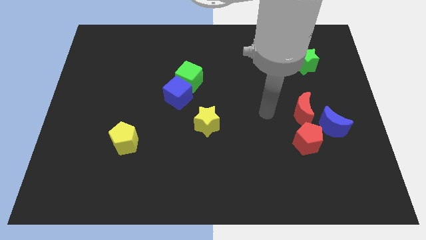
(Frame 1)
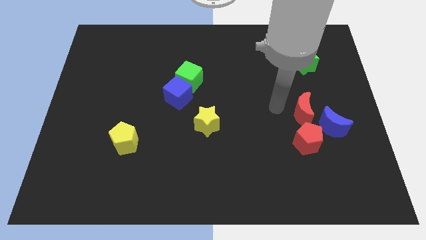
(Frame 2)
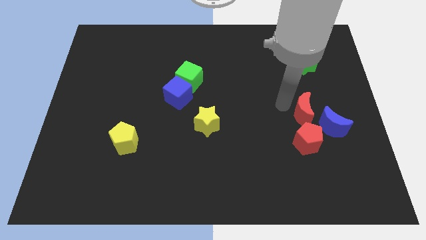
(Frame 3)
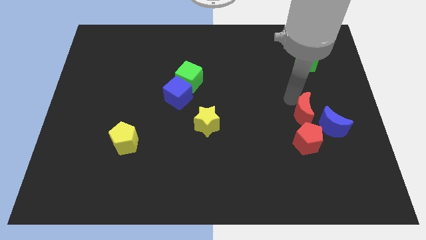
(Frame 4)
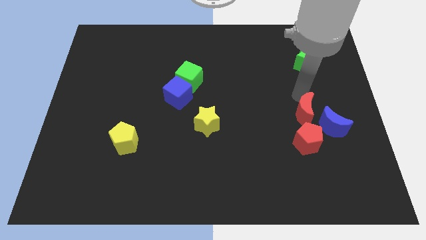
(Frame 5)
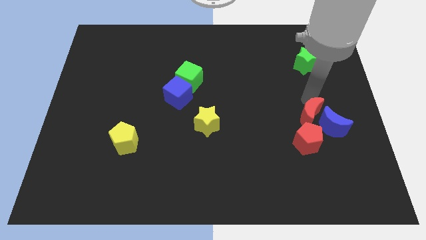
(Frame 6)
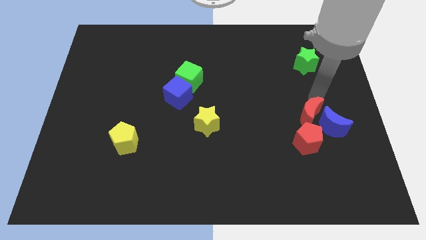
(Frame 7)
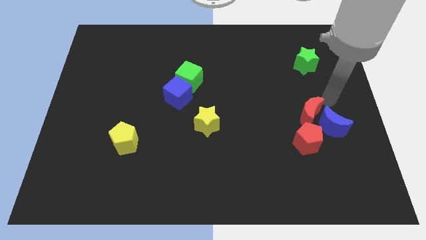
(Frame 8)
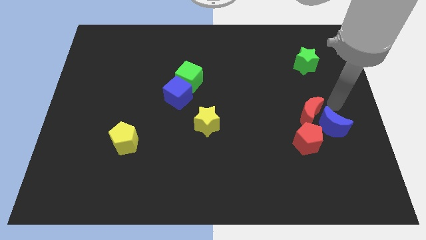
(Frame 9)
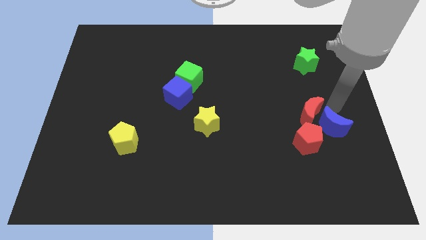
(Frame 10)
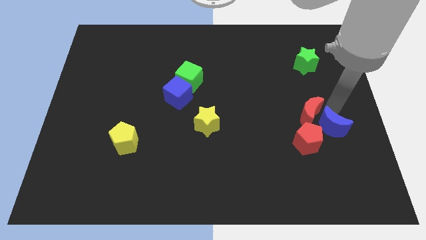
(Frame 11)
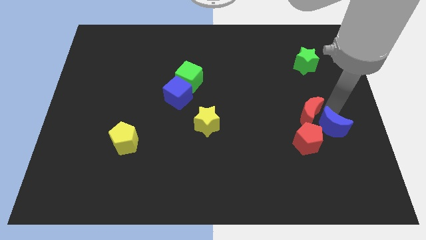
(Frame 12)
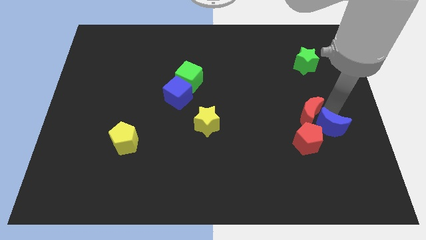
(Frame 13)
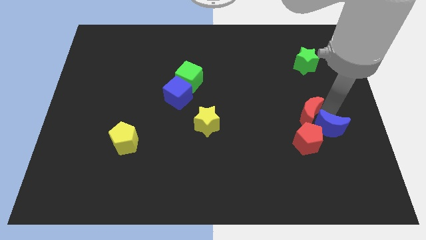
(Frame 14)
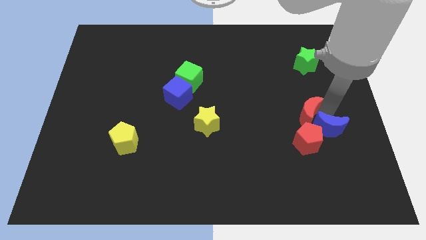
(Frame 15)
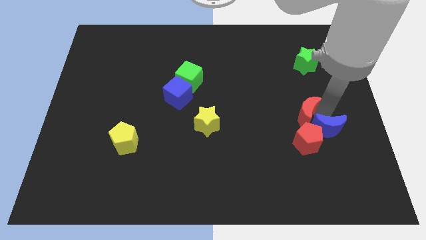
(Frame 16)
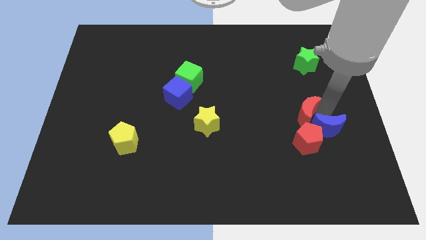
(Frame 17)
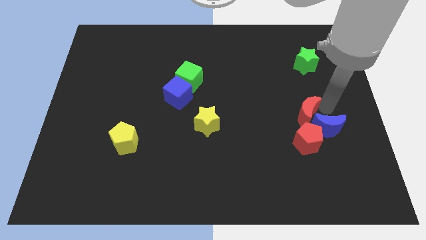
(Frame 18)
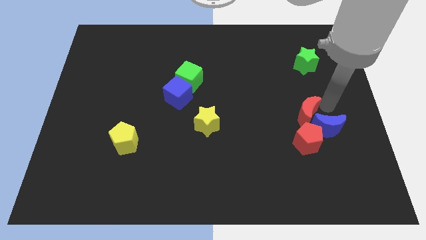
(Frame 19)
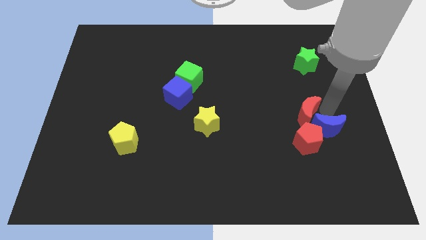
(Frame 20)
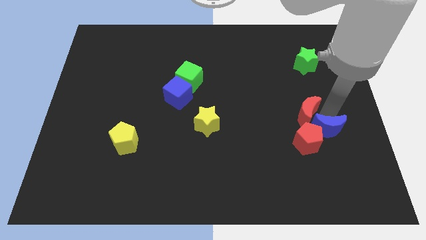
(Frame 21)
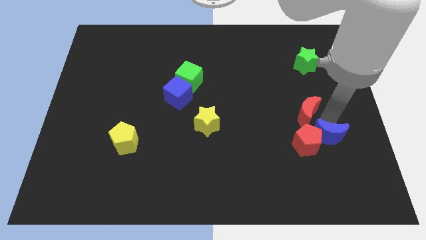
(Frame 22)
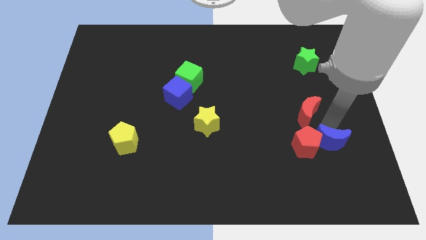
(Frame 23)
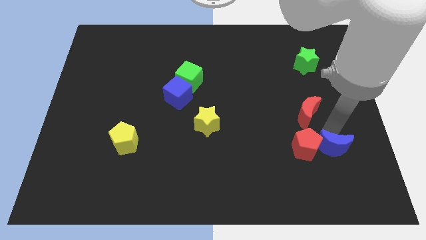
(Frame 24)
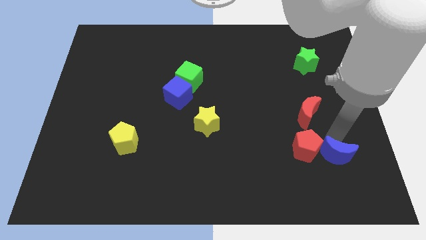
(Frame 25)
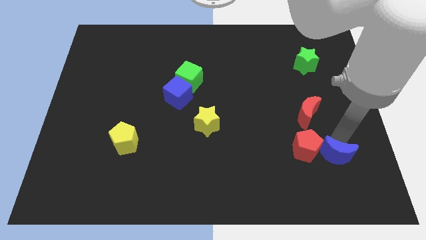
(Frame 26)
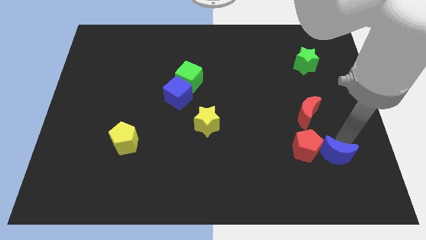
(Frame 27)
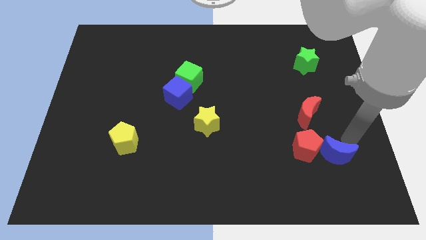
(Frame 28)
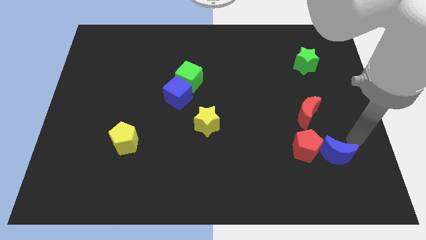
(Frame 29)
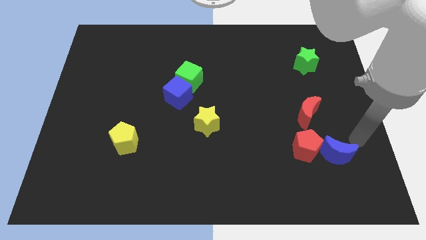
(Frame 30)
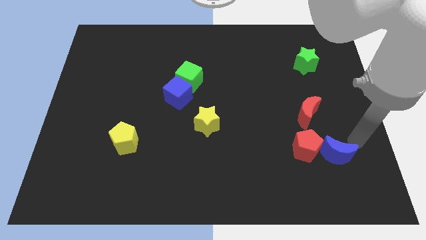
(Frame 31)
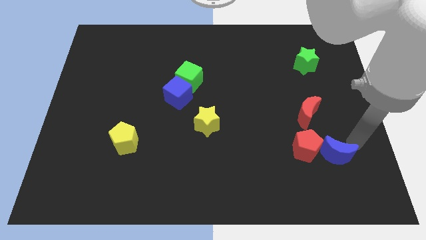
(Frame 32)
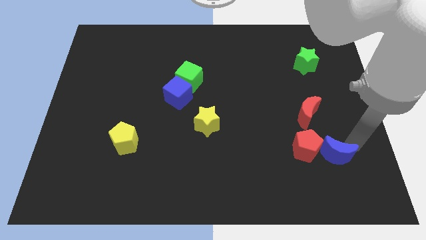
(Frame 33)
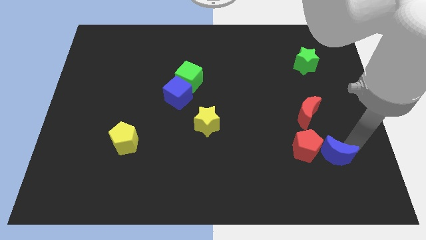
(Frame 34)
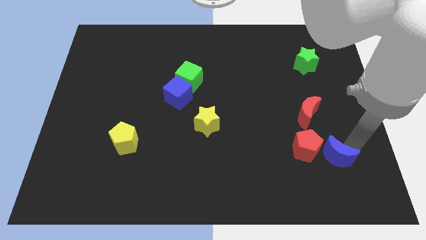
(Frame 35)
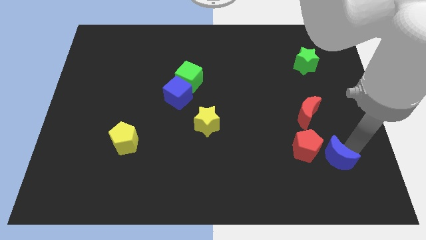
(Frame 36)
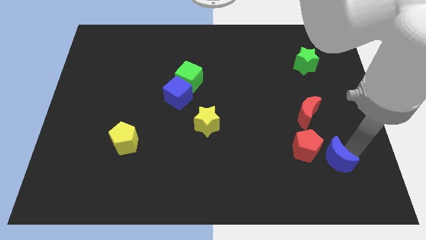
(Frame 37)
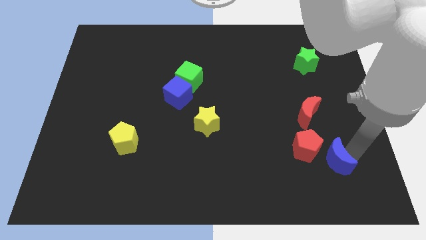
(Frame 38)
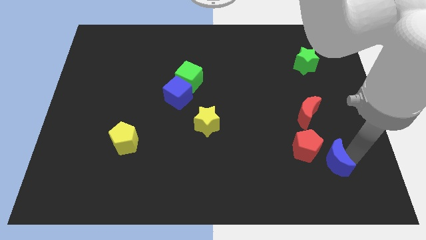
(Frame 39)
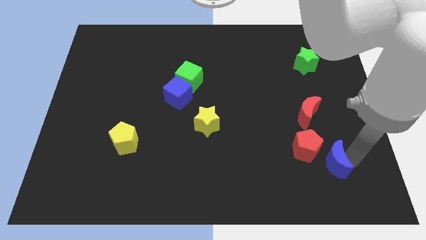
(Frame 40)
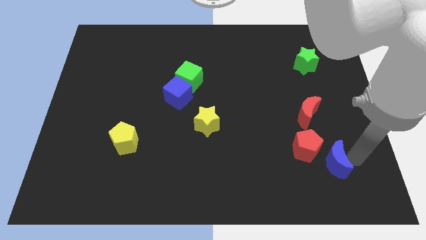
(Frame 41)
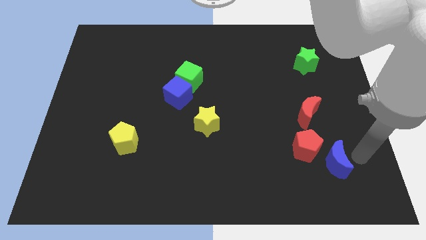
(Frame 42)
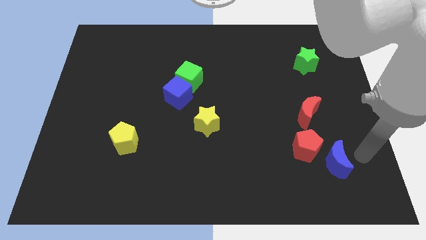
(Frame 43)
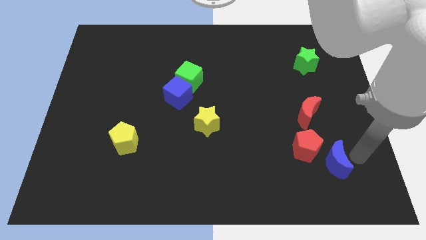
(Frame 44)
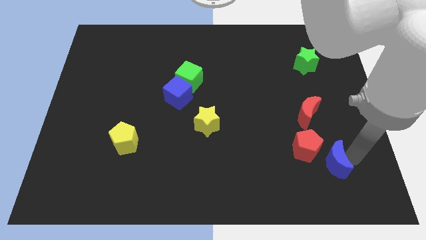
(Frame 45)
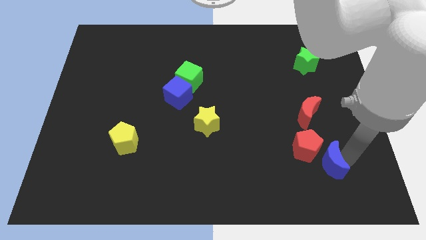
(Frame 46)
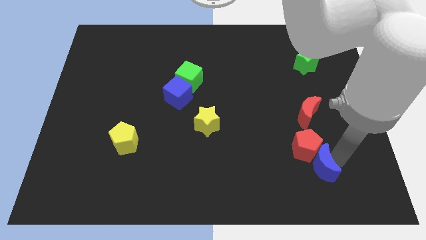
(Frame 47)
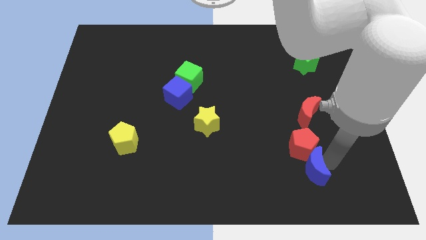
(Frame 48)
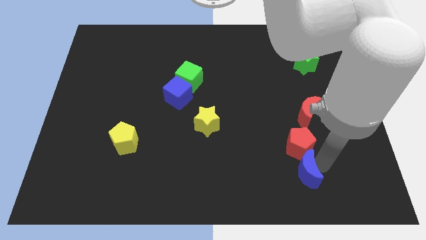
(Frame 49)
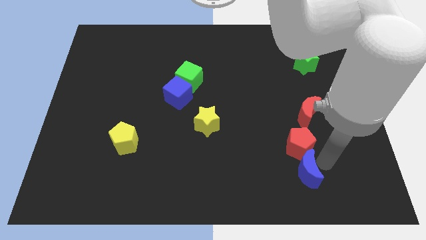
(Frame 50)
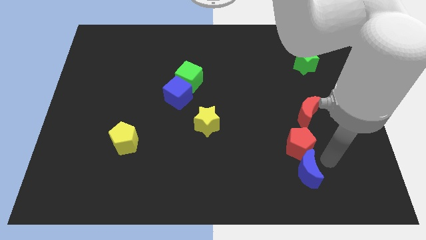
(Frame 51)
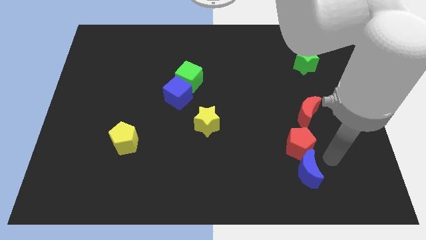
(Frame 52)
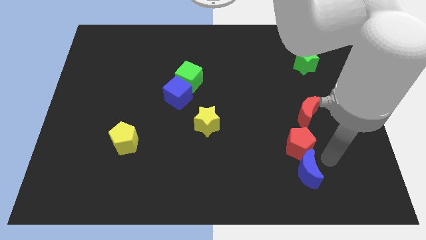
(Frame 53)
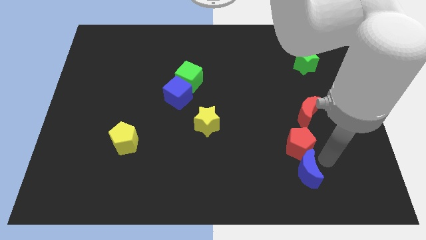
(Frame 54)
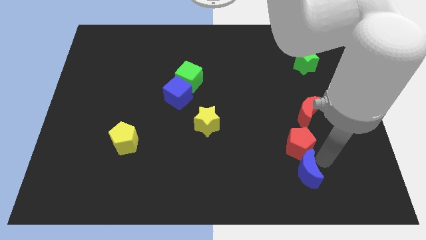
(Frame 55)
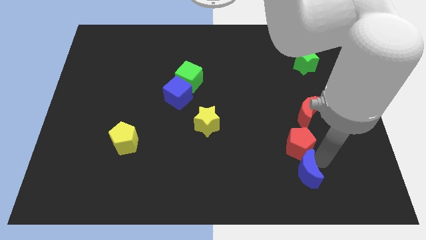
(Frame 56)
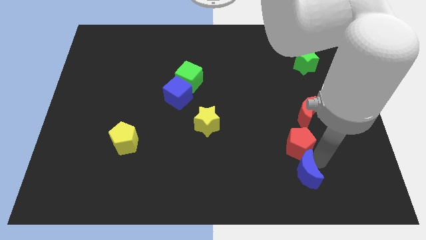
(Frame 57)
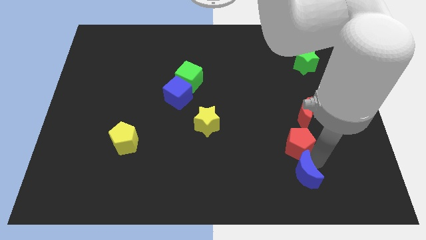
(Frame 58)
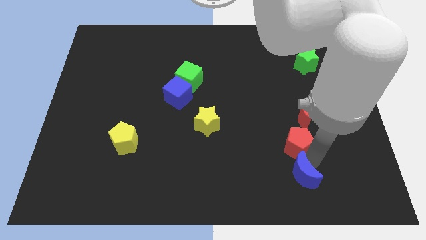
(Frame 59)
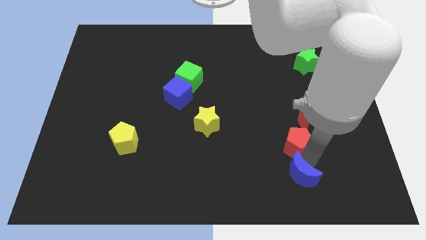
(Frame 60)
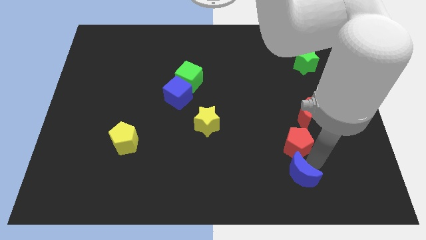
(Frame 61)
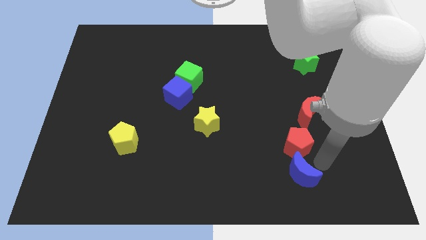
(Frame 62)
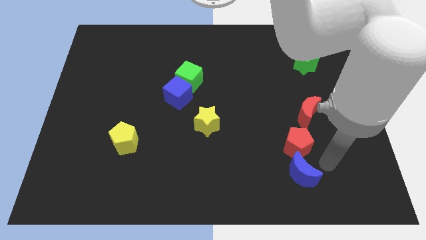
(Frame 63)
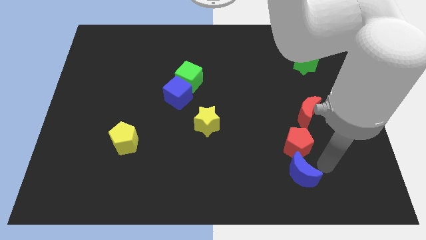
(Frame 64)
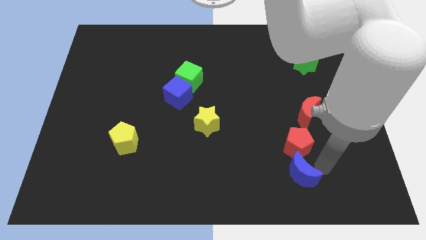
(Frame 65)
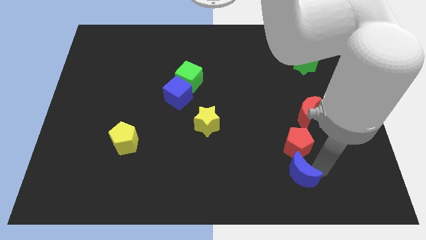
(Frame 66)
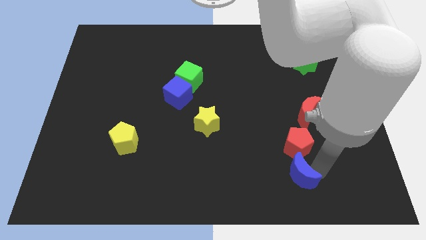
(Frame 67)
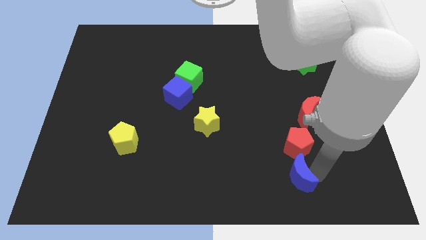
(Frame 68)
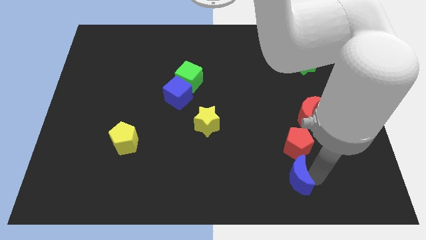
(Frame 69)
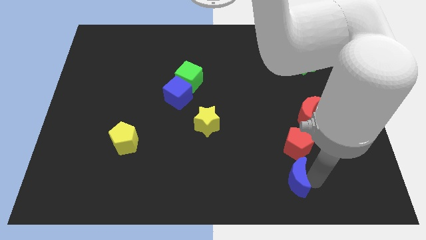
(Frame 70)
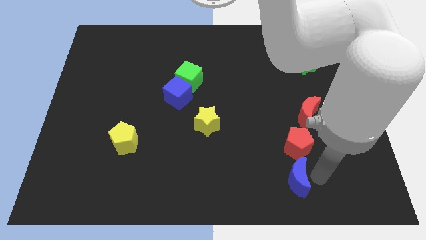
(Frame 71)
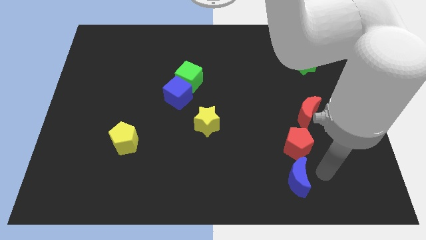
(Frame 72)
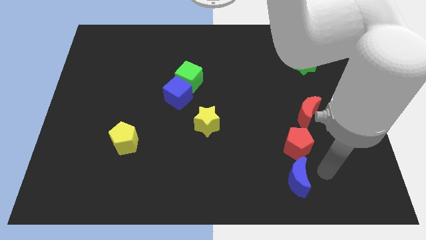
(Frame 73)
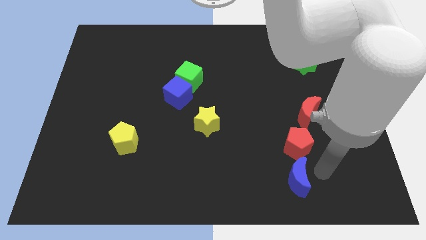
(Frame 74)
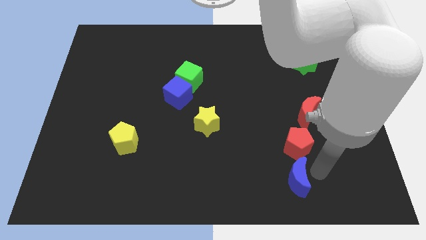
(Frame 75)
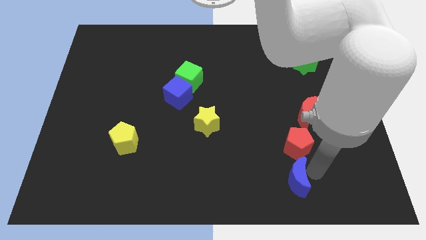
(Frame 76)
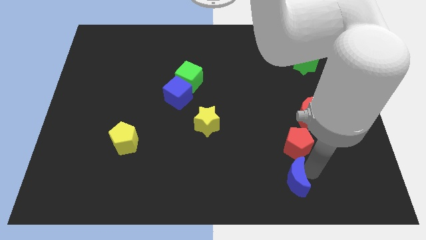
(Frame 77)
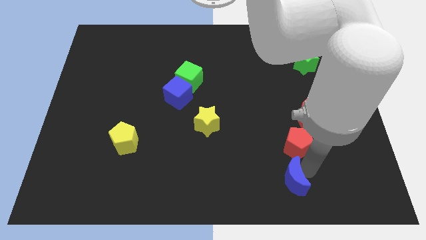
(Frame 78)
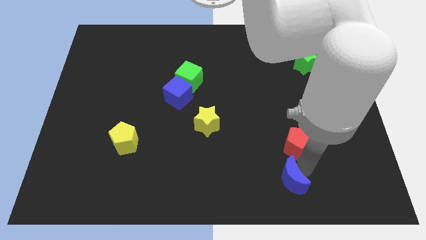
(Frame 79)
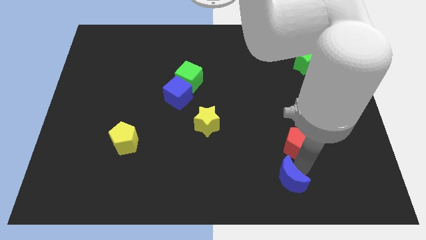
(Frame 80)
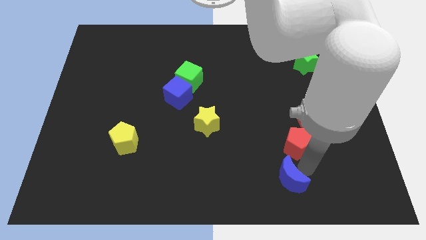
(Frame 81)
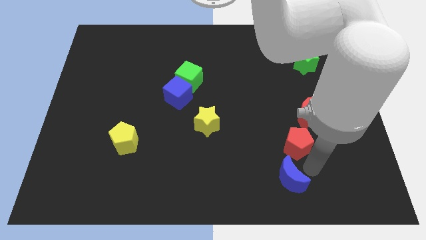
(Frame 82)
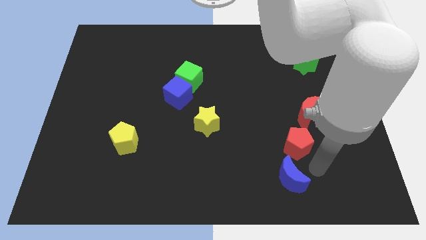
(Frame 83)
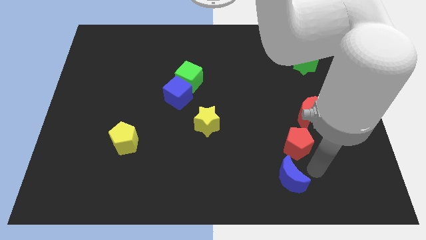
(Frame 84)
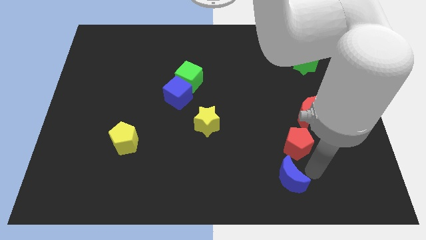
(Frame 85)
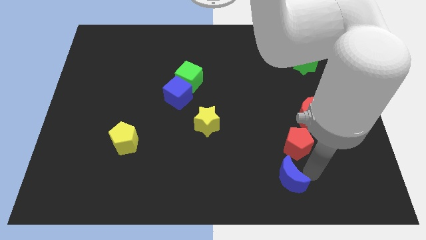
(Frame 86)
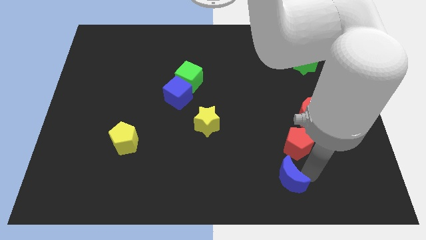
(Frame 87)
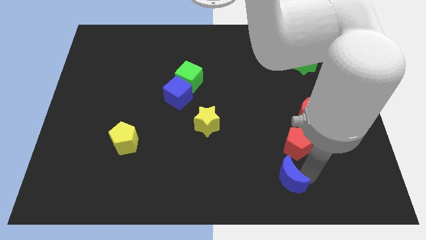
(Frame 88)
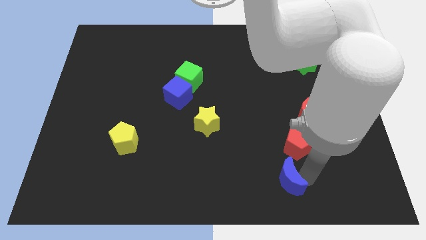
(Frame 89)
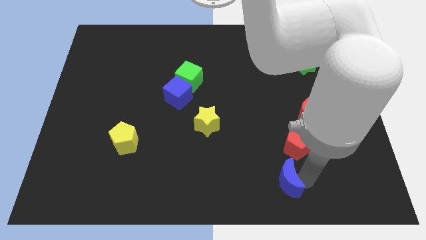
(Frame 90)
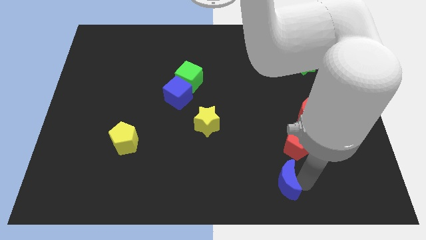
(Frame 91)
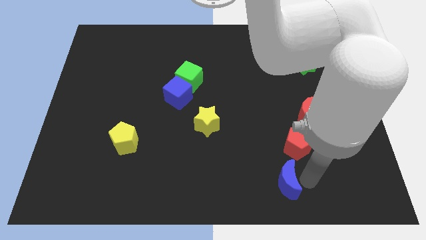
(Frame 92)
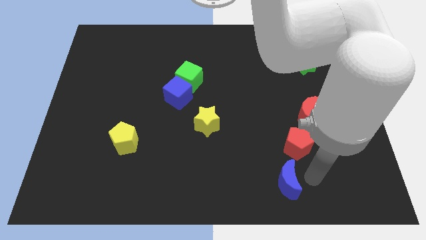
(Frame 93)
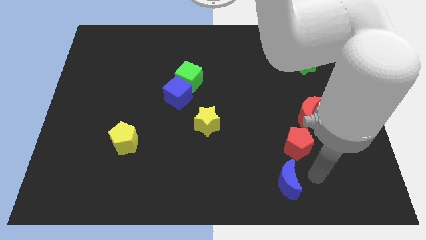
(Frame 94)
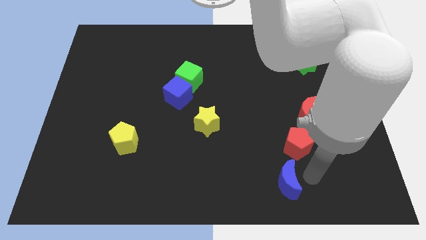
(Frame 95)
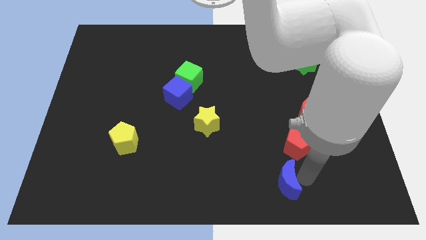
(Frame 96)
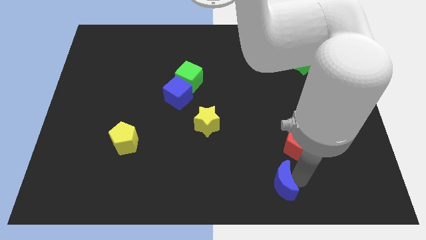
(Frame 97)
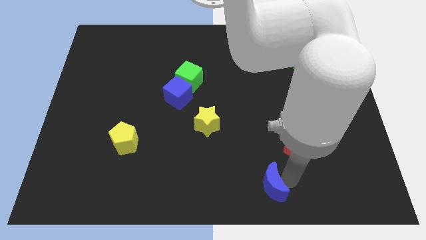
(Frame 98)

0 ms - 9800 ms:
slide the blue moon to the bottom side
